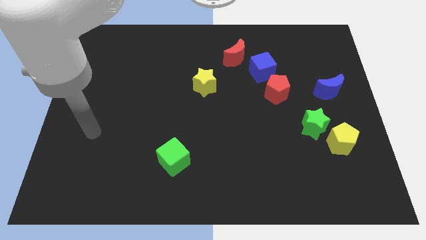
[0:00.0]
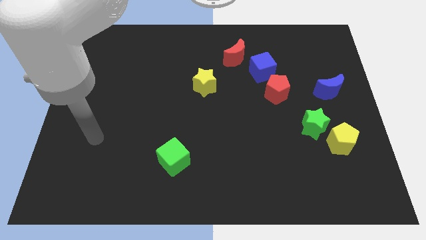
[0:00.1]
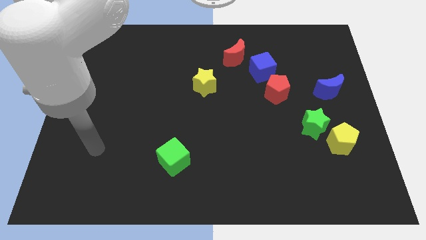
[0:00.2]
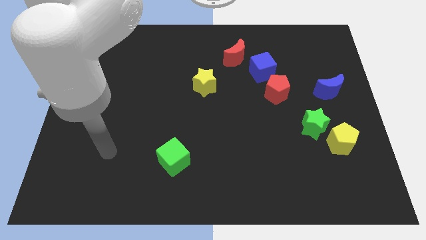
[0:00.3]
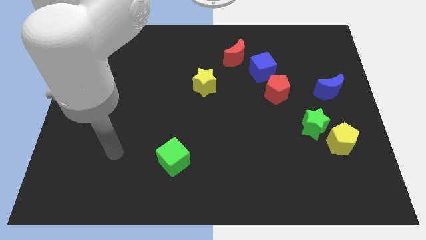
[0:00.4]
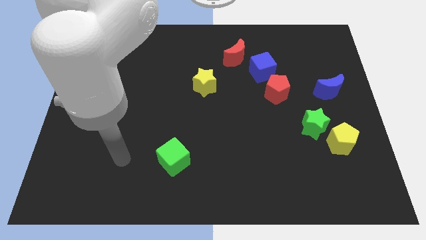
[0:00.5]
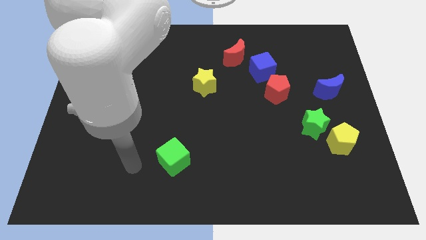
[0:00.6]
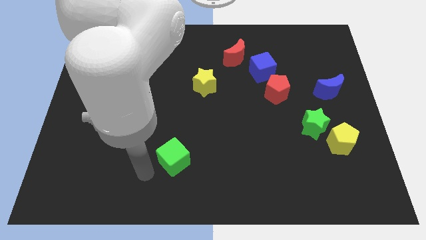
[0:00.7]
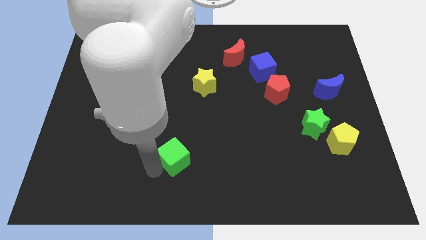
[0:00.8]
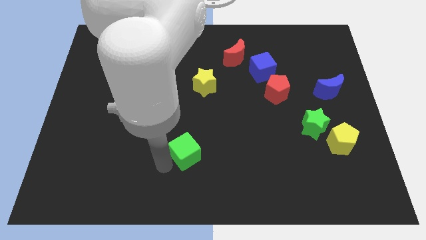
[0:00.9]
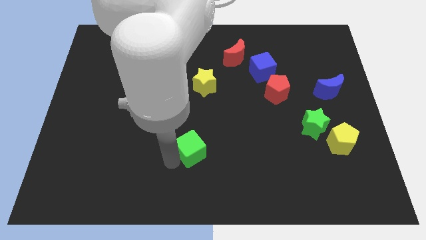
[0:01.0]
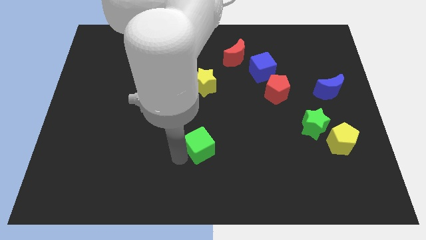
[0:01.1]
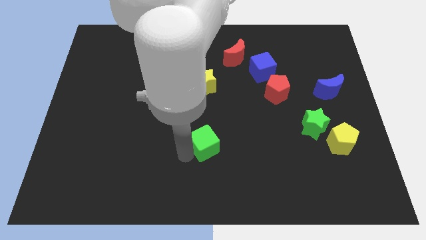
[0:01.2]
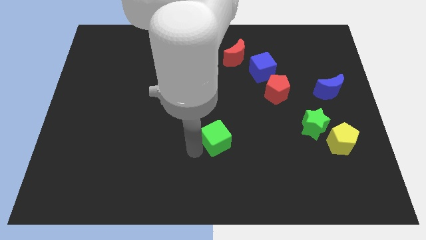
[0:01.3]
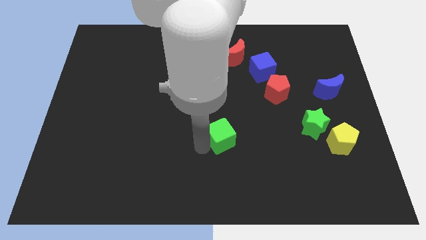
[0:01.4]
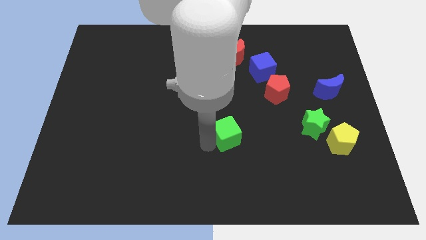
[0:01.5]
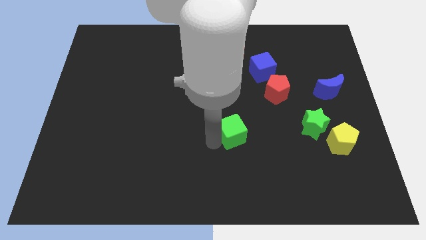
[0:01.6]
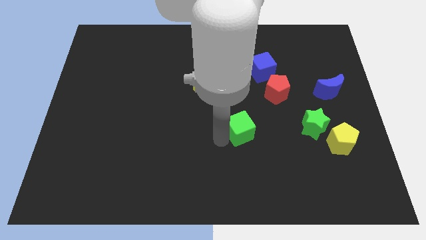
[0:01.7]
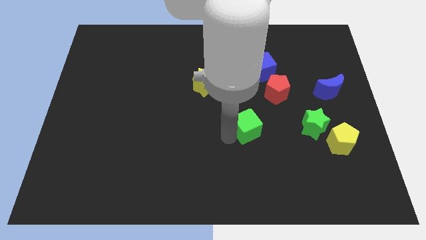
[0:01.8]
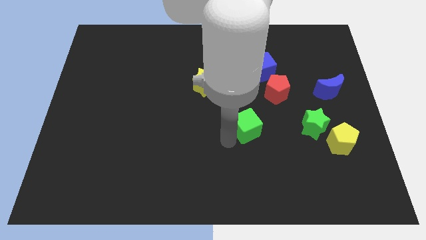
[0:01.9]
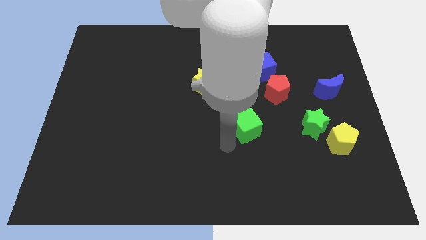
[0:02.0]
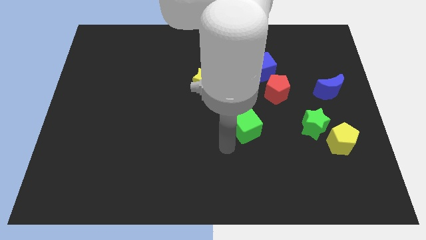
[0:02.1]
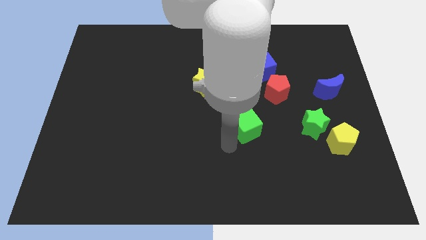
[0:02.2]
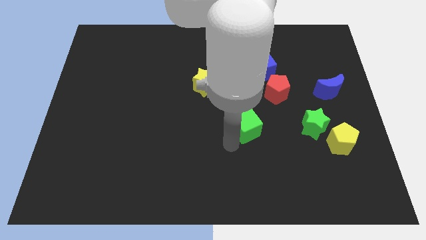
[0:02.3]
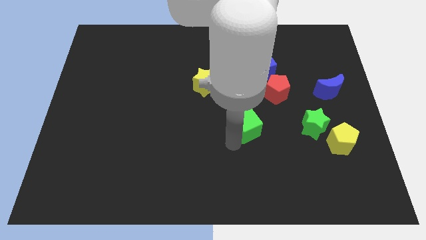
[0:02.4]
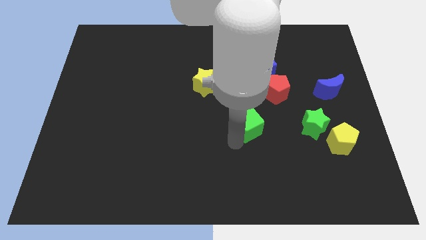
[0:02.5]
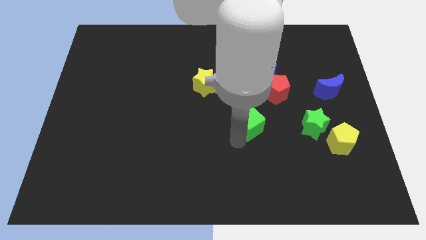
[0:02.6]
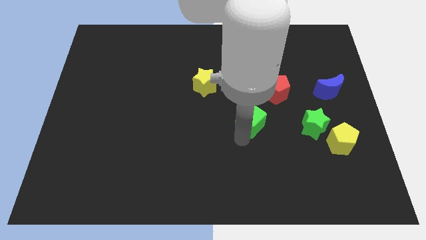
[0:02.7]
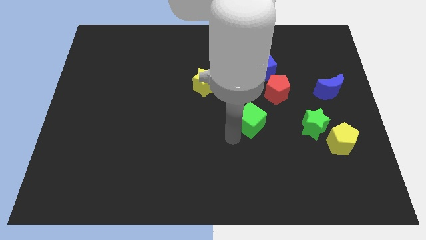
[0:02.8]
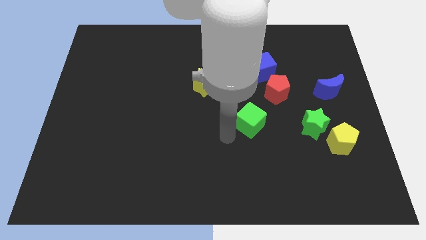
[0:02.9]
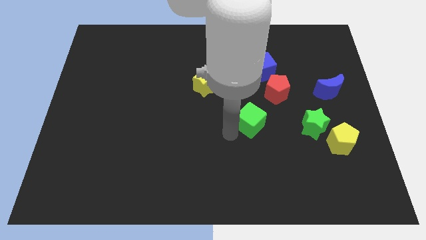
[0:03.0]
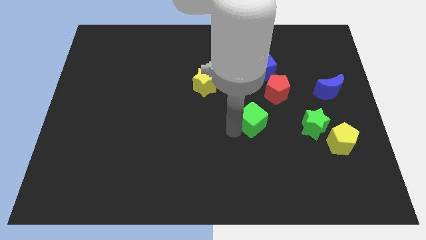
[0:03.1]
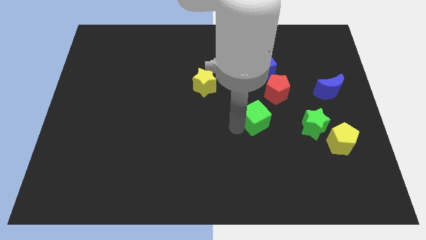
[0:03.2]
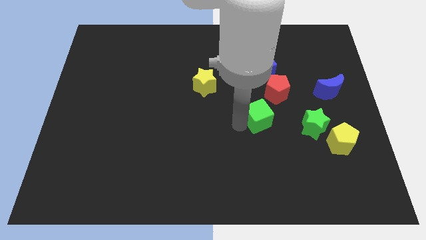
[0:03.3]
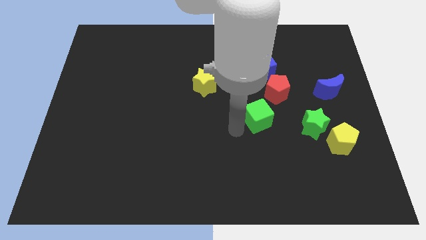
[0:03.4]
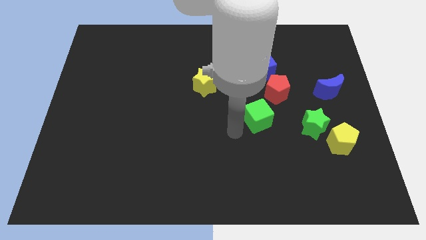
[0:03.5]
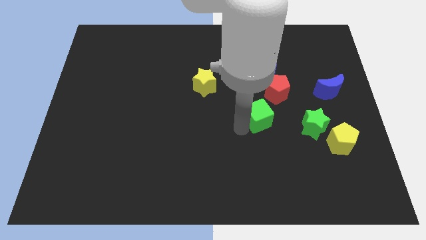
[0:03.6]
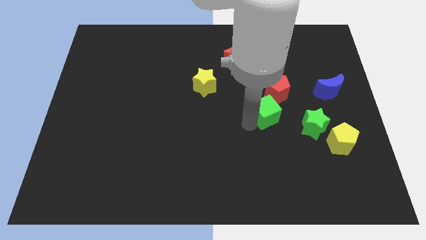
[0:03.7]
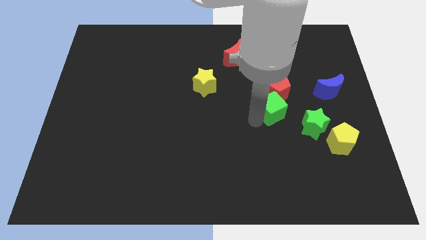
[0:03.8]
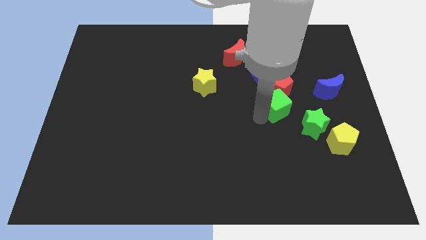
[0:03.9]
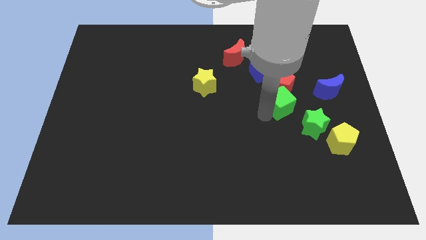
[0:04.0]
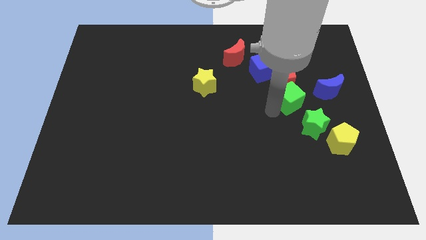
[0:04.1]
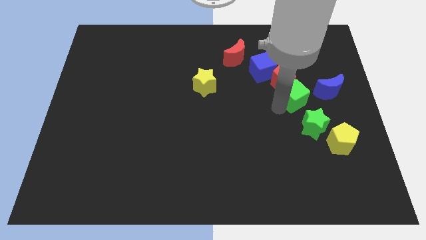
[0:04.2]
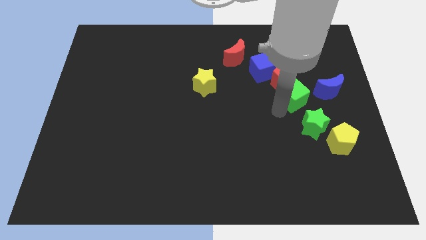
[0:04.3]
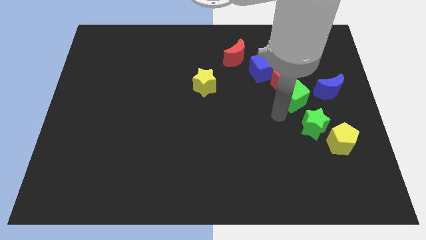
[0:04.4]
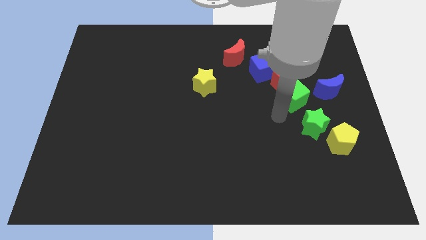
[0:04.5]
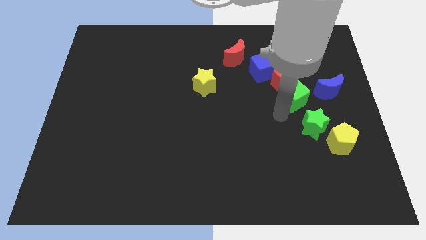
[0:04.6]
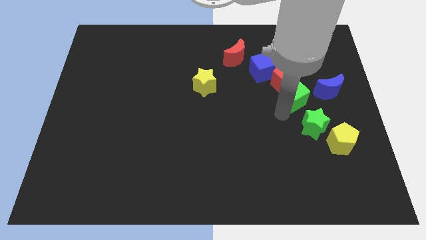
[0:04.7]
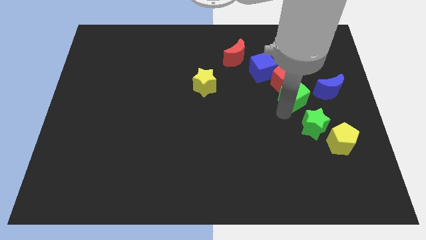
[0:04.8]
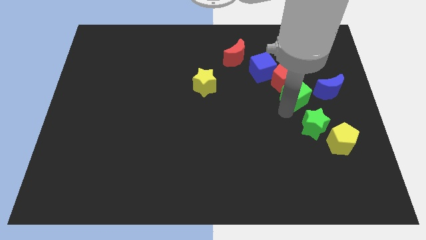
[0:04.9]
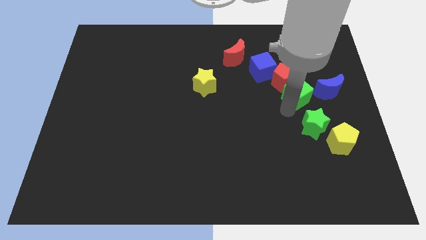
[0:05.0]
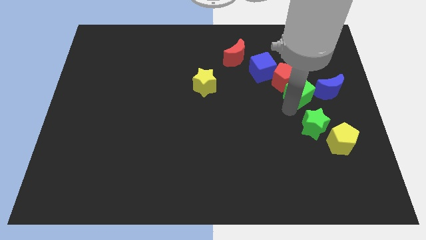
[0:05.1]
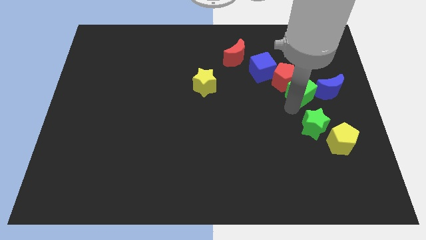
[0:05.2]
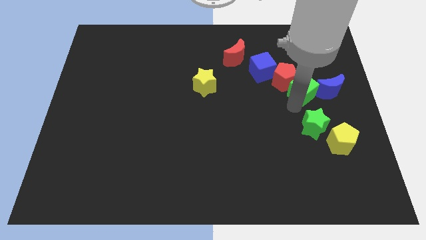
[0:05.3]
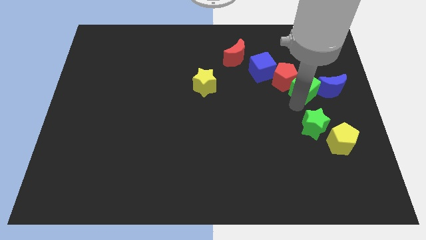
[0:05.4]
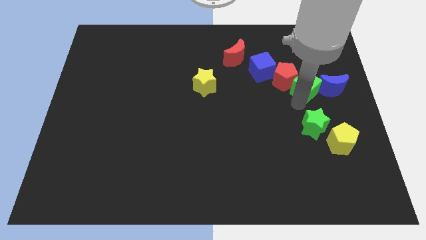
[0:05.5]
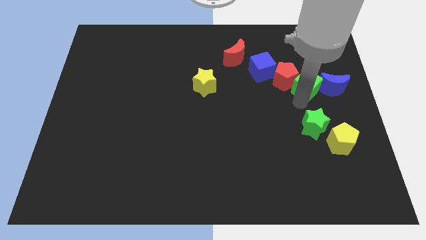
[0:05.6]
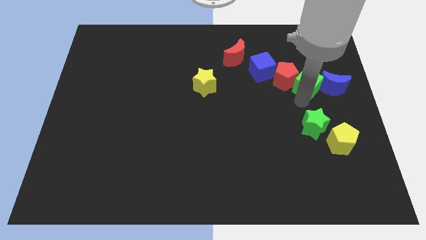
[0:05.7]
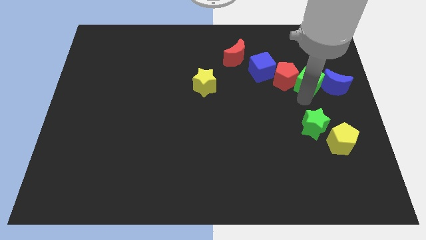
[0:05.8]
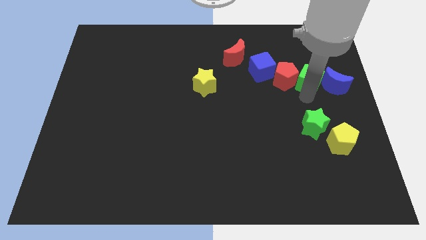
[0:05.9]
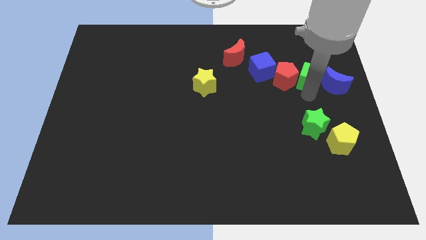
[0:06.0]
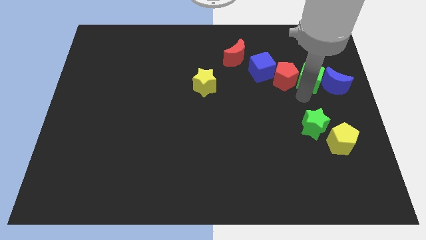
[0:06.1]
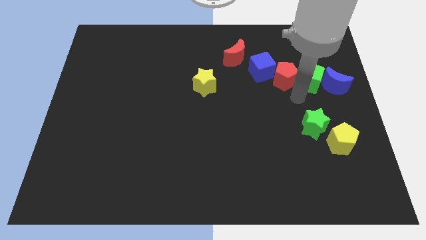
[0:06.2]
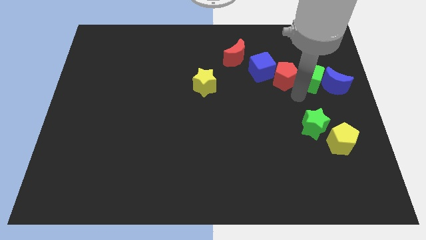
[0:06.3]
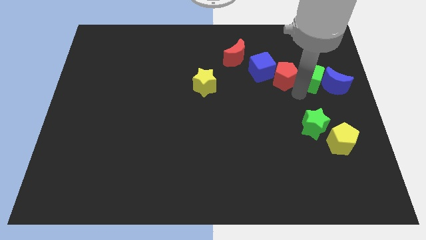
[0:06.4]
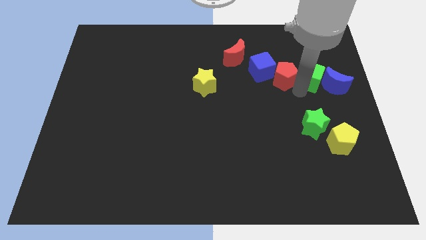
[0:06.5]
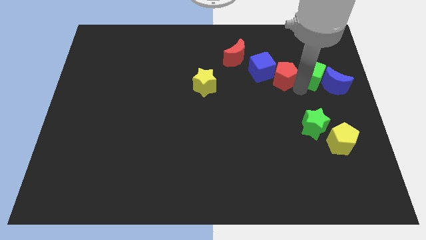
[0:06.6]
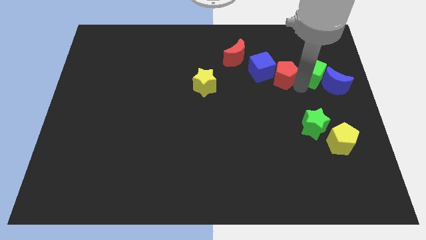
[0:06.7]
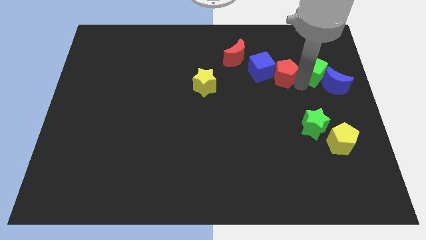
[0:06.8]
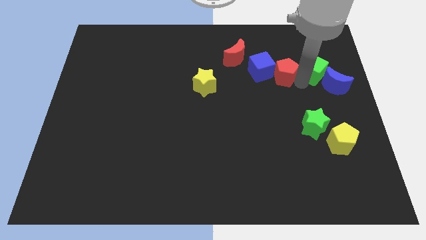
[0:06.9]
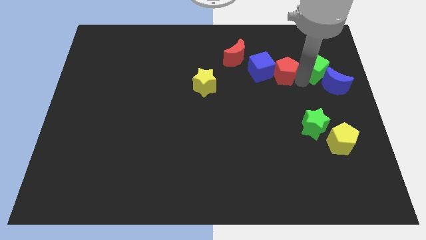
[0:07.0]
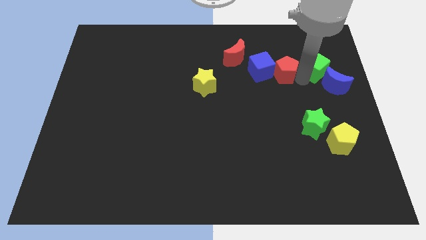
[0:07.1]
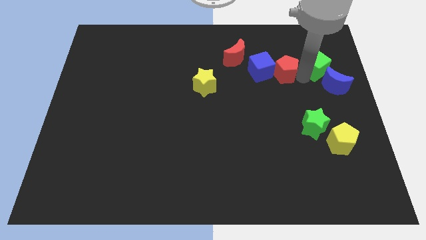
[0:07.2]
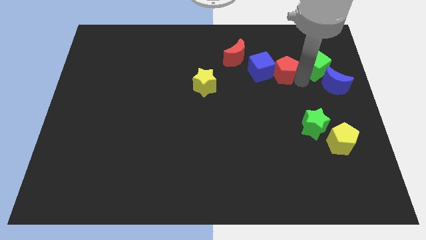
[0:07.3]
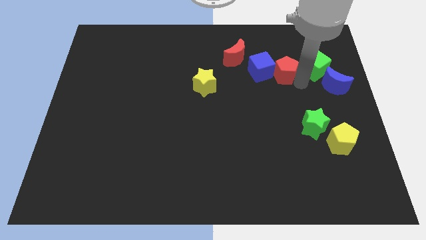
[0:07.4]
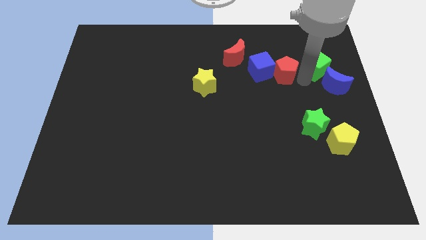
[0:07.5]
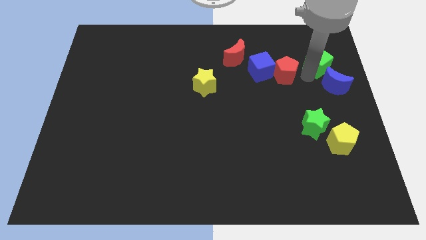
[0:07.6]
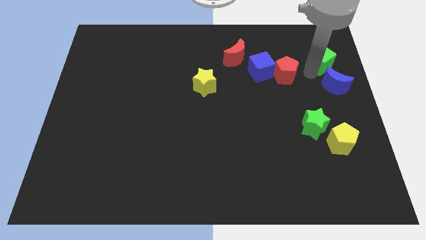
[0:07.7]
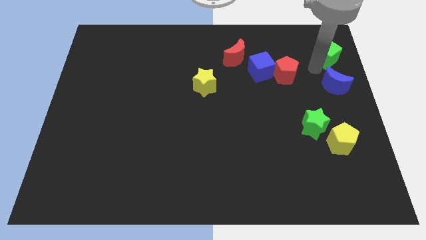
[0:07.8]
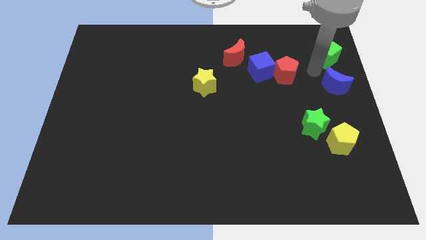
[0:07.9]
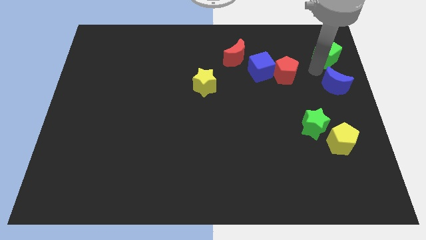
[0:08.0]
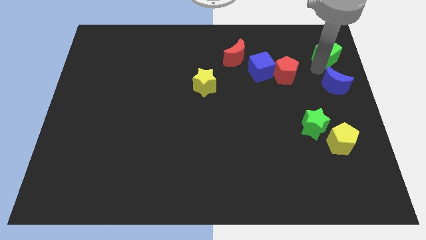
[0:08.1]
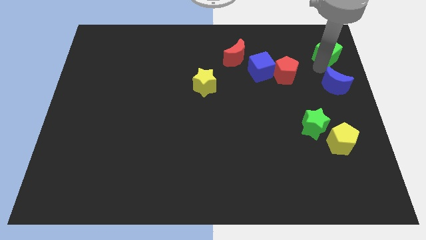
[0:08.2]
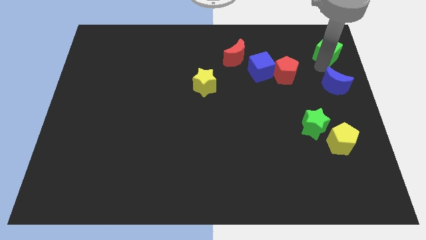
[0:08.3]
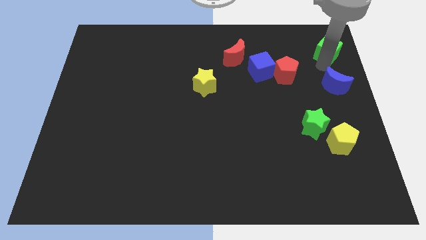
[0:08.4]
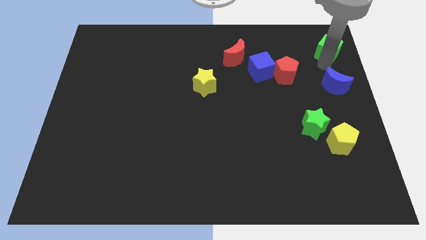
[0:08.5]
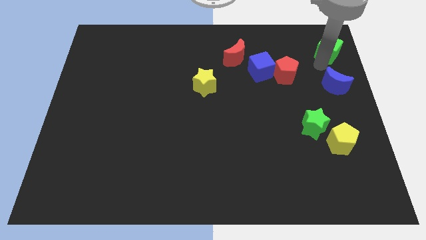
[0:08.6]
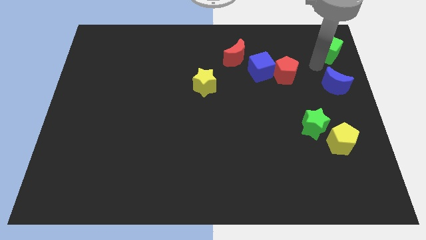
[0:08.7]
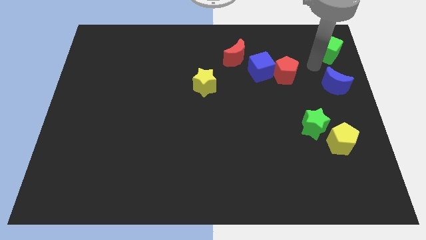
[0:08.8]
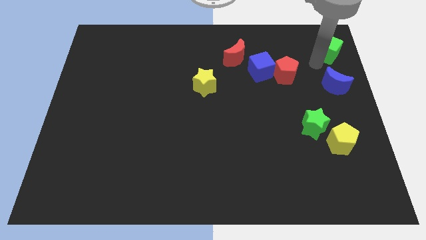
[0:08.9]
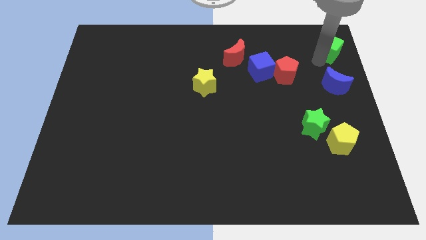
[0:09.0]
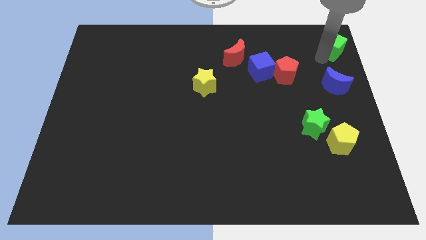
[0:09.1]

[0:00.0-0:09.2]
push the green cube to the top right
